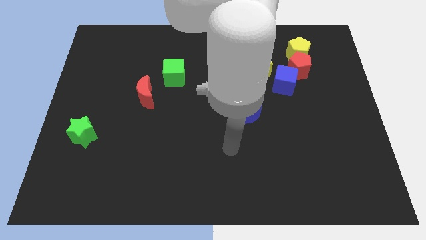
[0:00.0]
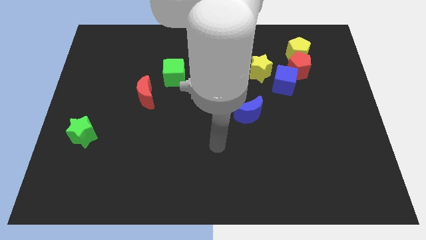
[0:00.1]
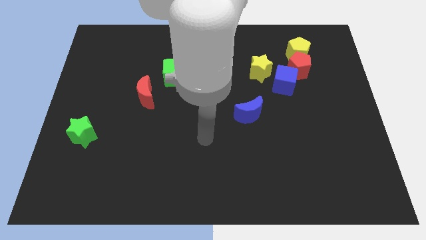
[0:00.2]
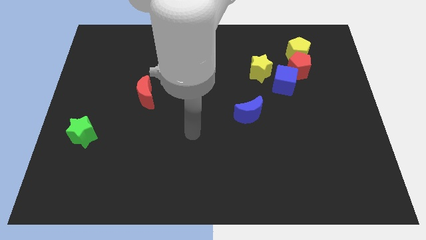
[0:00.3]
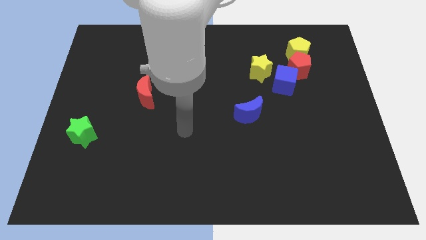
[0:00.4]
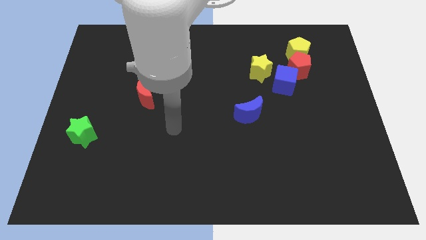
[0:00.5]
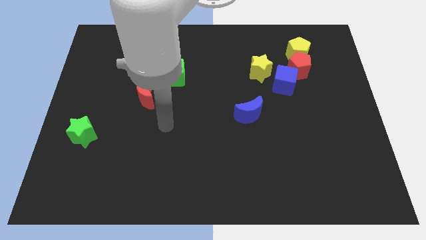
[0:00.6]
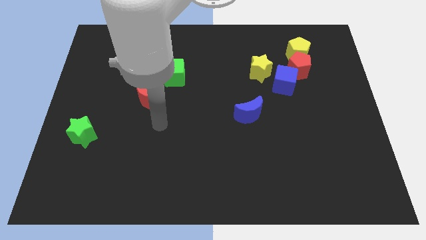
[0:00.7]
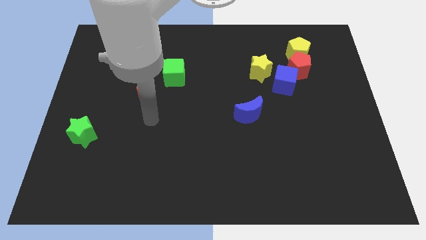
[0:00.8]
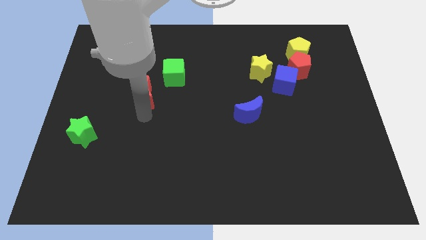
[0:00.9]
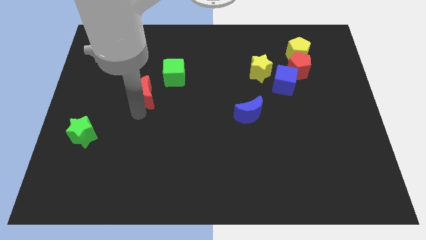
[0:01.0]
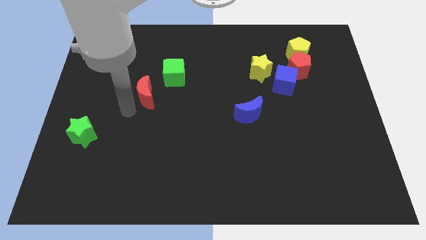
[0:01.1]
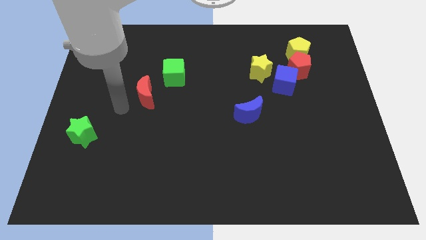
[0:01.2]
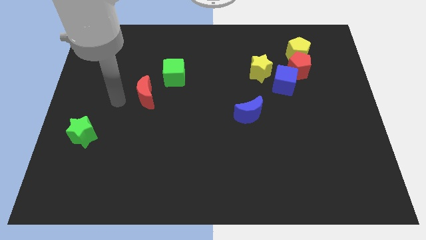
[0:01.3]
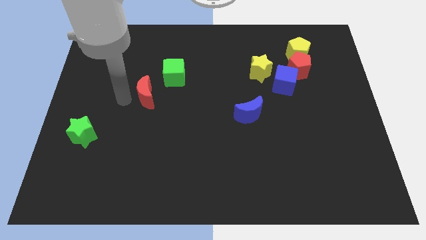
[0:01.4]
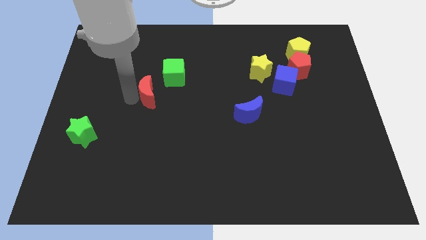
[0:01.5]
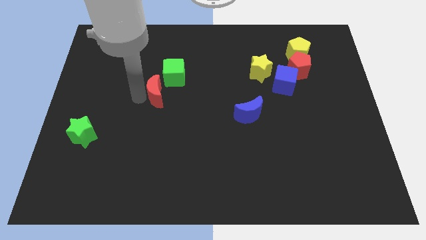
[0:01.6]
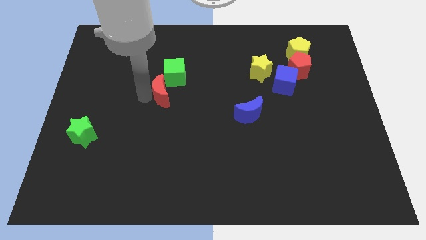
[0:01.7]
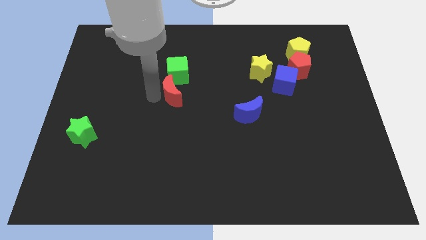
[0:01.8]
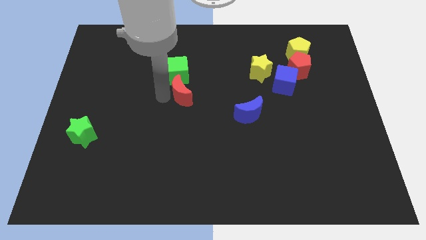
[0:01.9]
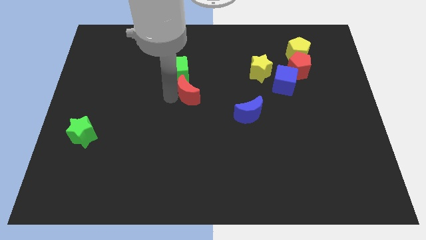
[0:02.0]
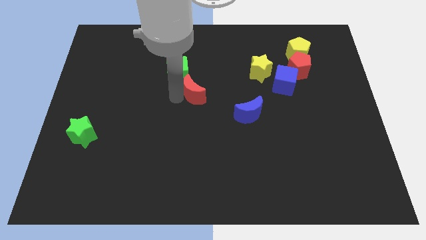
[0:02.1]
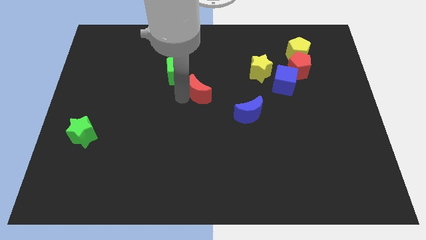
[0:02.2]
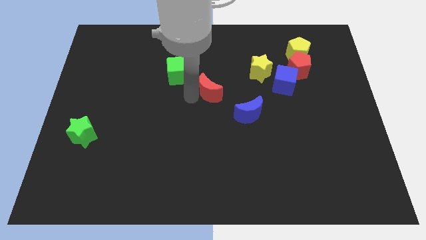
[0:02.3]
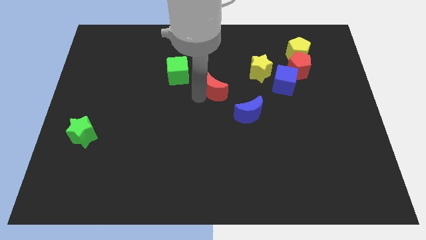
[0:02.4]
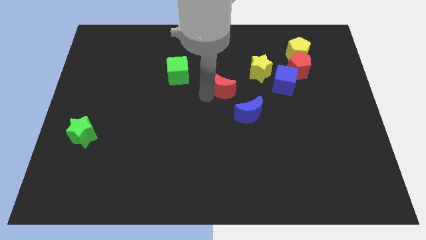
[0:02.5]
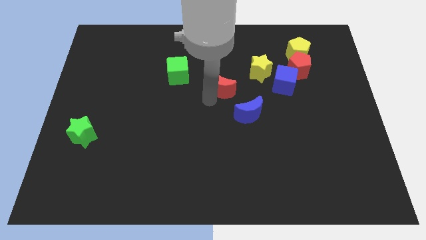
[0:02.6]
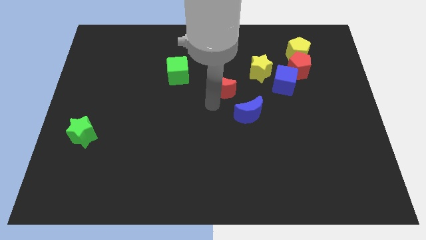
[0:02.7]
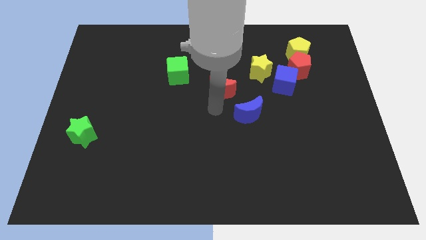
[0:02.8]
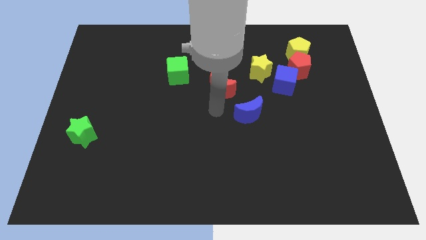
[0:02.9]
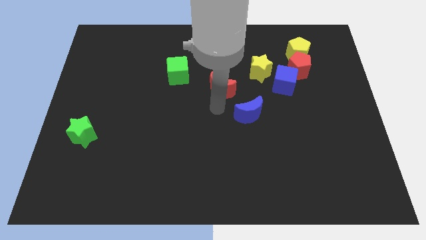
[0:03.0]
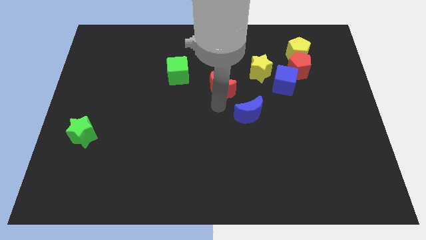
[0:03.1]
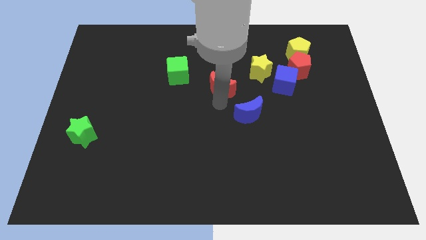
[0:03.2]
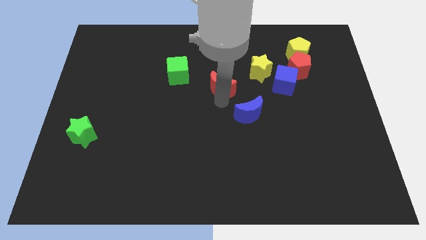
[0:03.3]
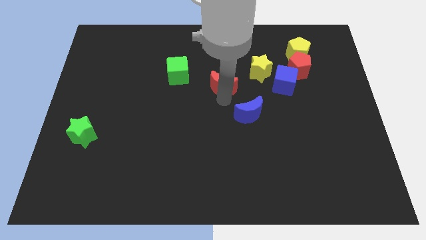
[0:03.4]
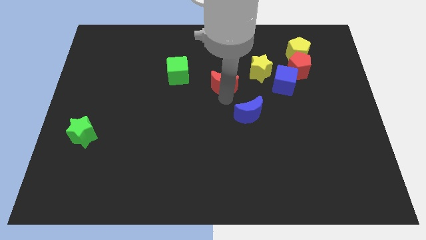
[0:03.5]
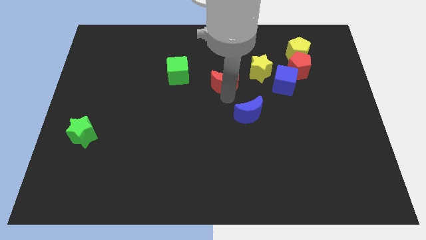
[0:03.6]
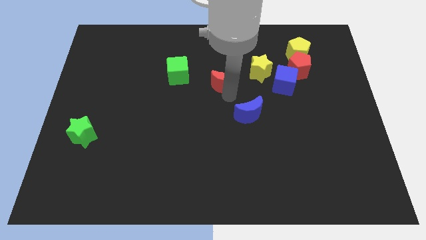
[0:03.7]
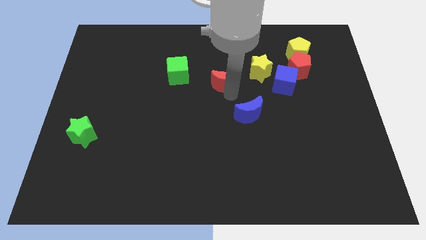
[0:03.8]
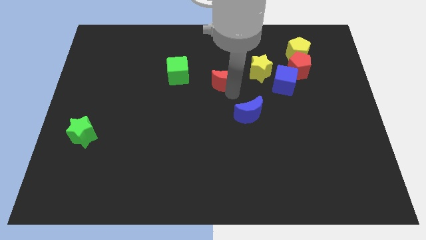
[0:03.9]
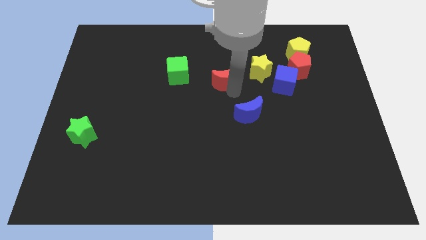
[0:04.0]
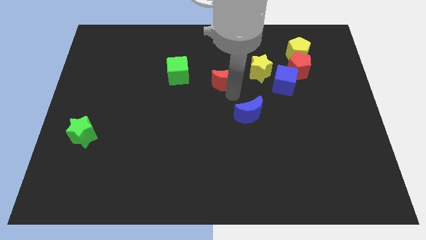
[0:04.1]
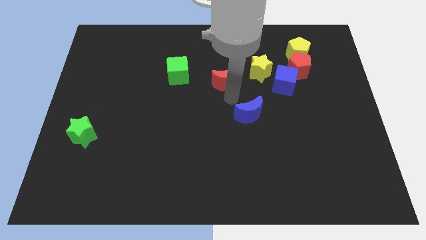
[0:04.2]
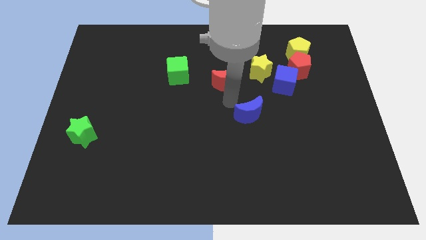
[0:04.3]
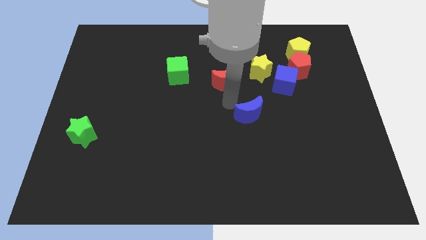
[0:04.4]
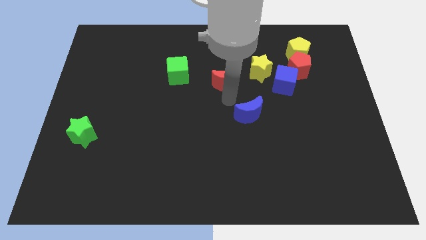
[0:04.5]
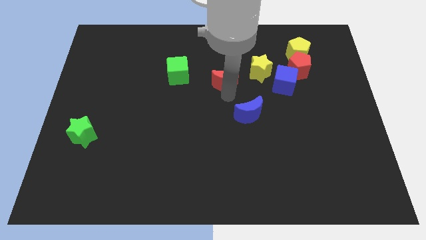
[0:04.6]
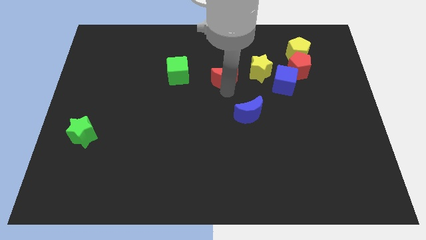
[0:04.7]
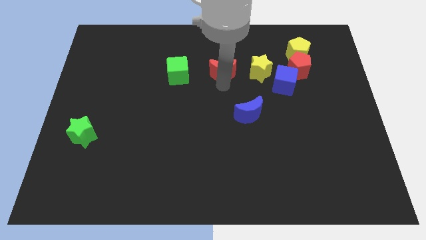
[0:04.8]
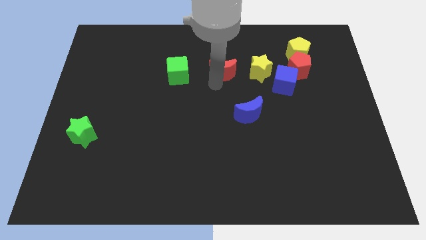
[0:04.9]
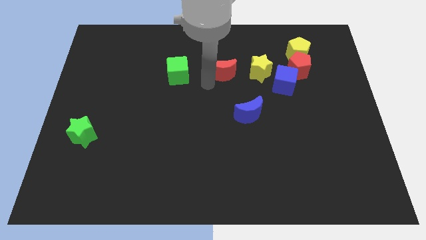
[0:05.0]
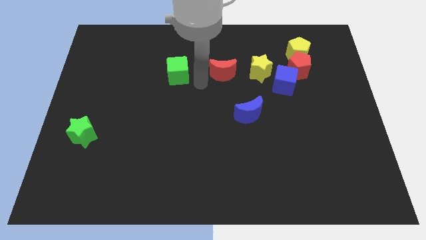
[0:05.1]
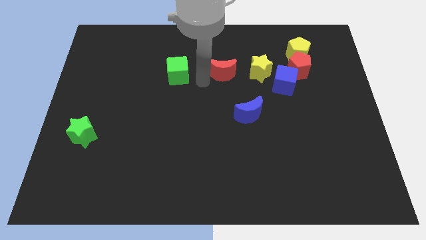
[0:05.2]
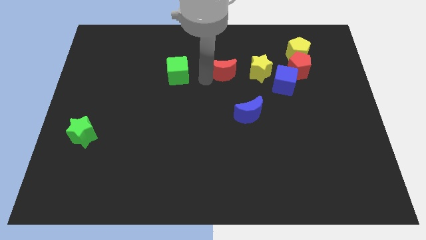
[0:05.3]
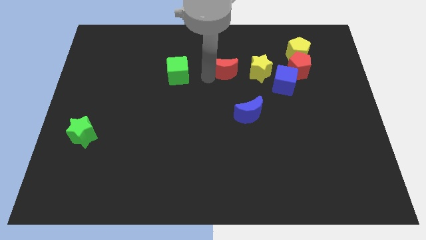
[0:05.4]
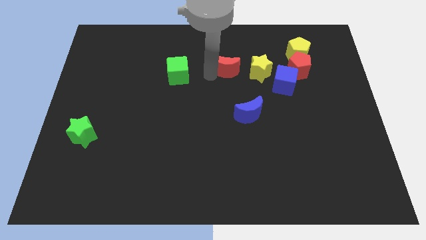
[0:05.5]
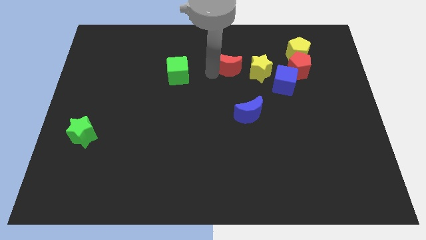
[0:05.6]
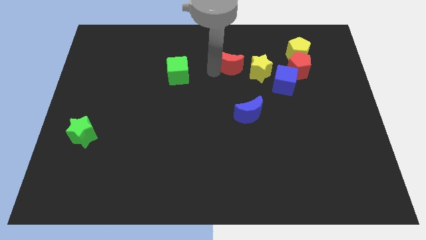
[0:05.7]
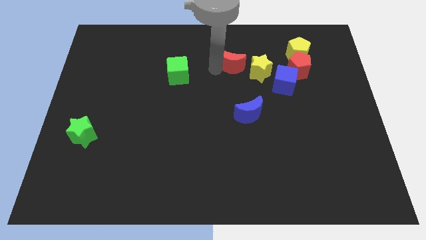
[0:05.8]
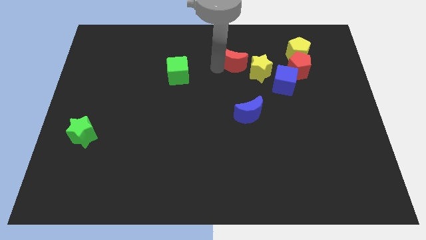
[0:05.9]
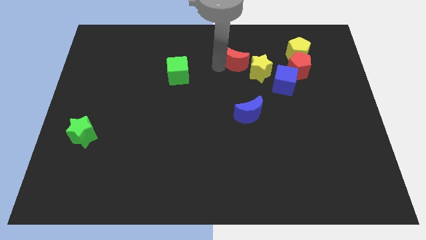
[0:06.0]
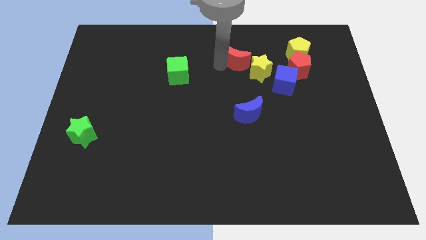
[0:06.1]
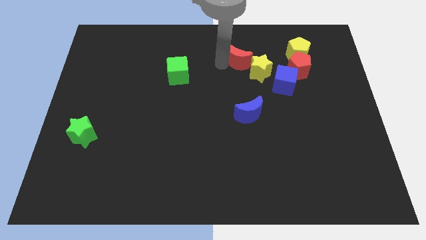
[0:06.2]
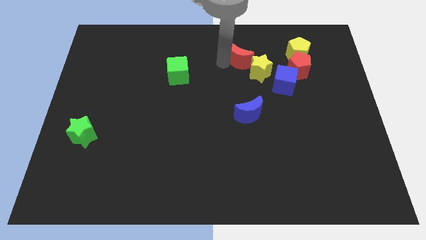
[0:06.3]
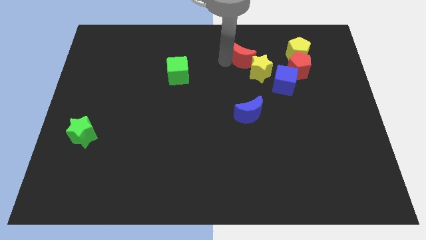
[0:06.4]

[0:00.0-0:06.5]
push the red moon to the top left of the blue cube

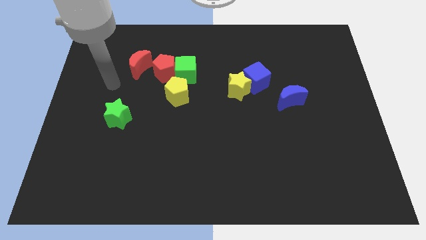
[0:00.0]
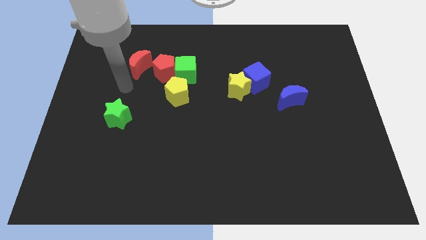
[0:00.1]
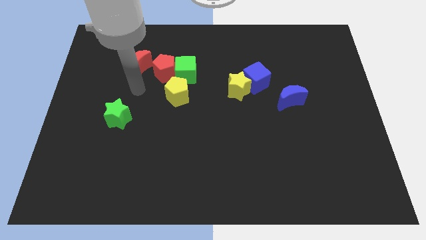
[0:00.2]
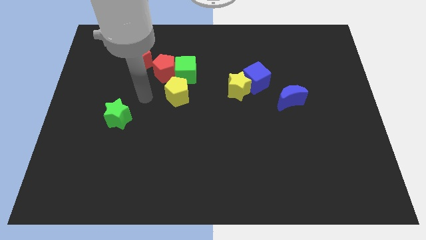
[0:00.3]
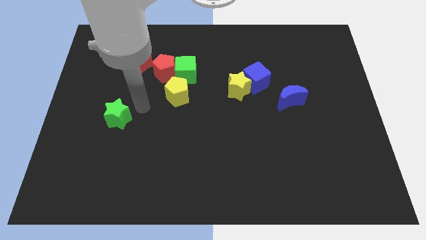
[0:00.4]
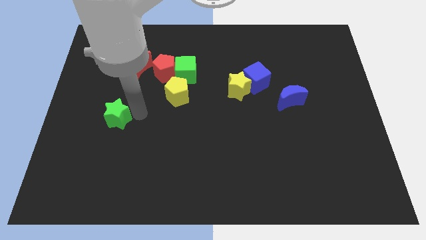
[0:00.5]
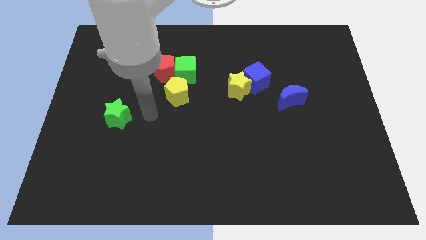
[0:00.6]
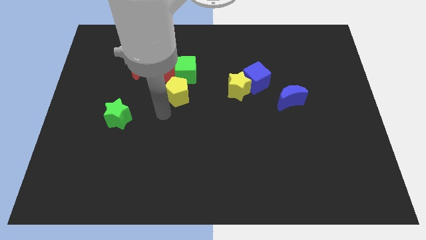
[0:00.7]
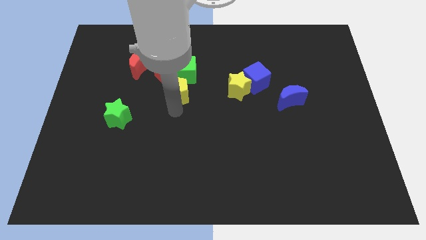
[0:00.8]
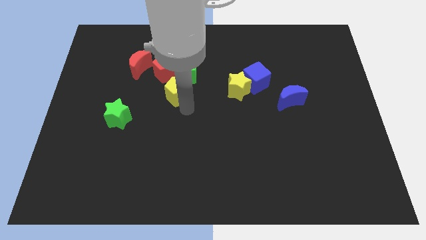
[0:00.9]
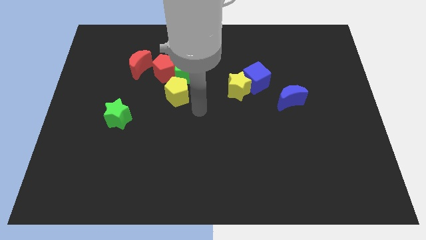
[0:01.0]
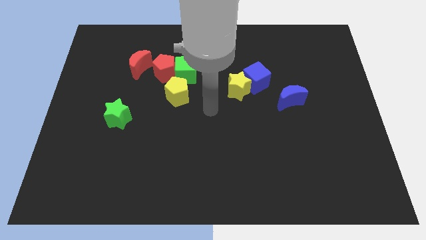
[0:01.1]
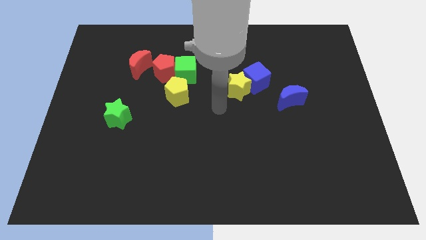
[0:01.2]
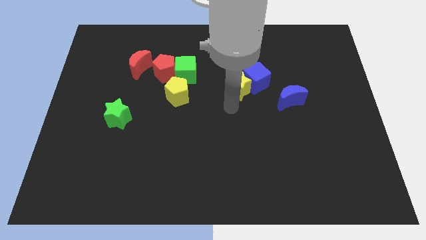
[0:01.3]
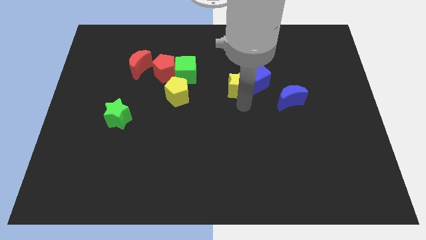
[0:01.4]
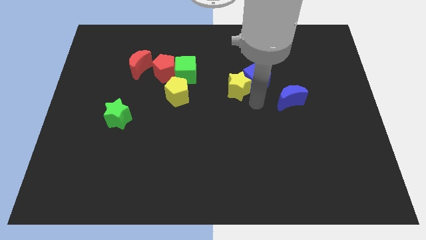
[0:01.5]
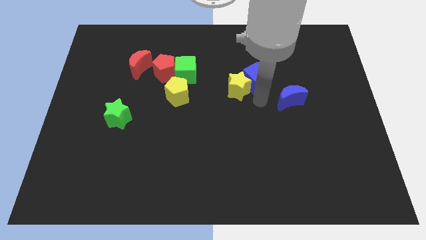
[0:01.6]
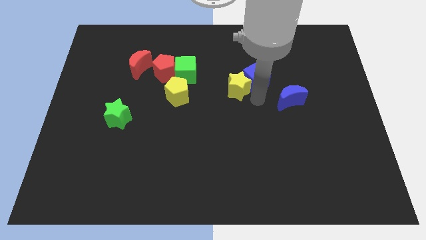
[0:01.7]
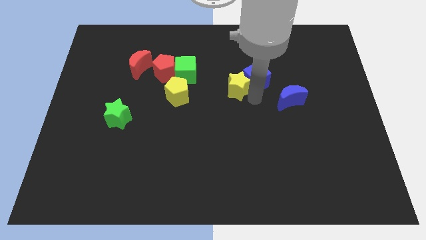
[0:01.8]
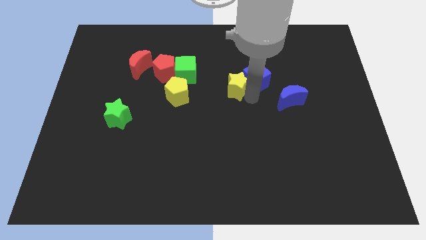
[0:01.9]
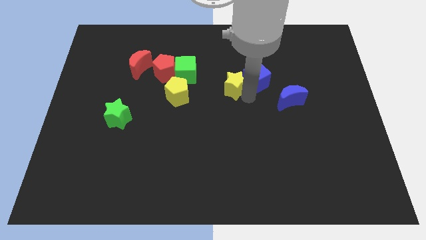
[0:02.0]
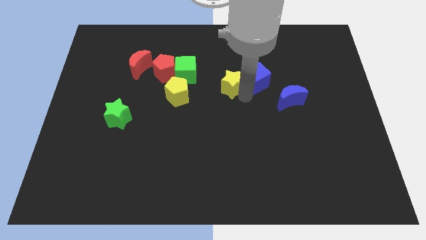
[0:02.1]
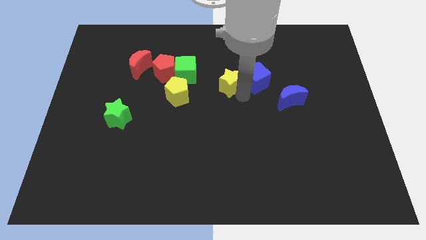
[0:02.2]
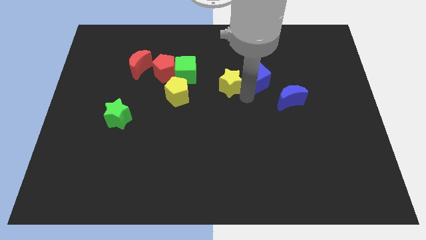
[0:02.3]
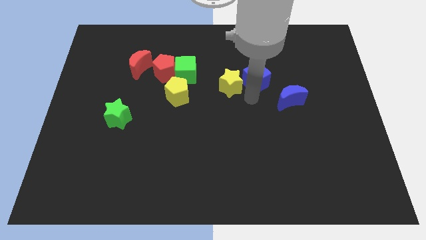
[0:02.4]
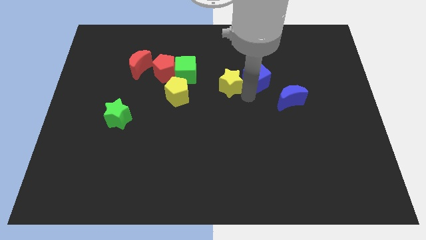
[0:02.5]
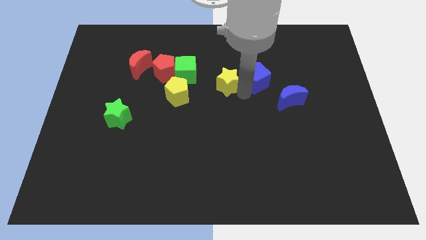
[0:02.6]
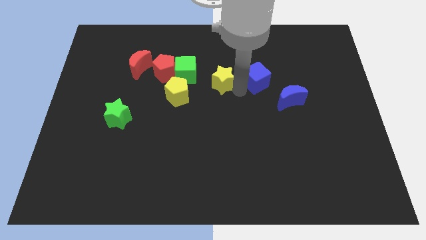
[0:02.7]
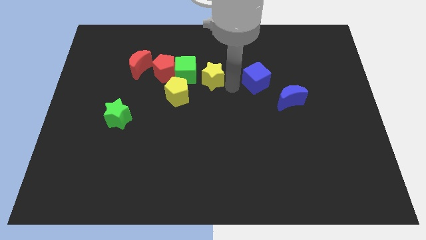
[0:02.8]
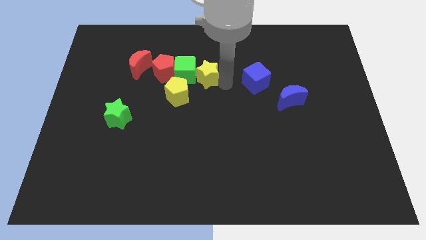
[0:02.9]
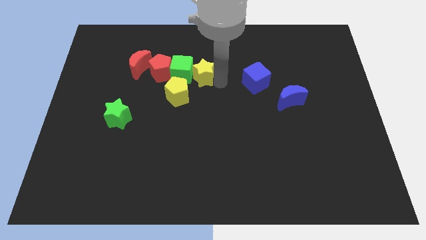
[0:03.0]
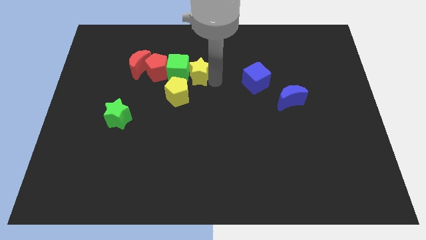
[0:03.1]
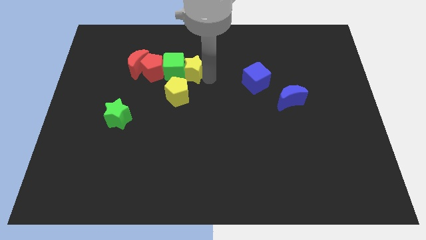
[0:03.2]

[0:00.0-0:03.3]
move the yellow star to the right side of the red moon
